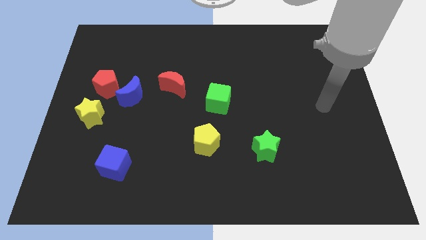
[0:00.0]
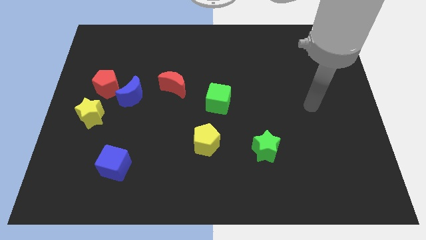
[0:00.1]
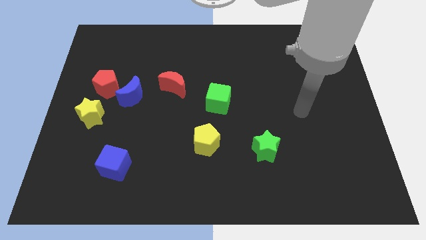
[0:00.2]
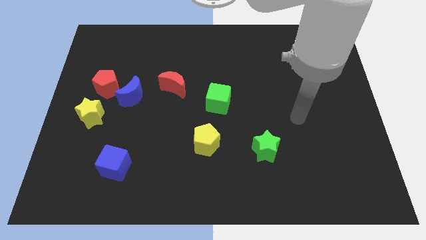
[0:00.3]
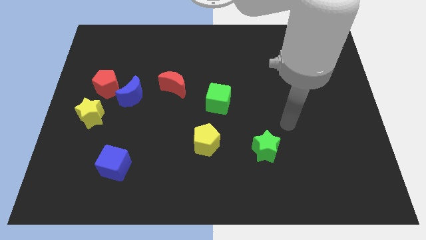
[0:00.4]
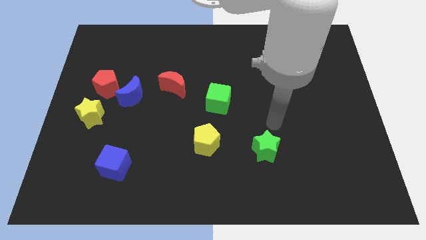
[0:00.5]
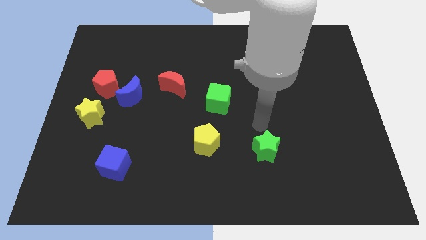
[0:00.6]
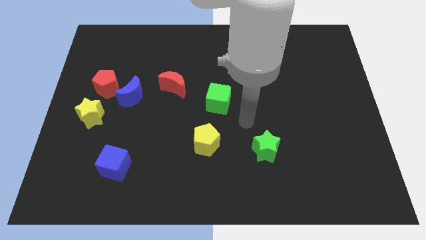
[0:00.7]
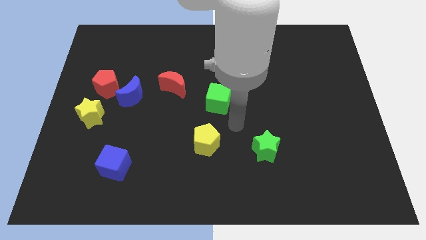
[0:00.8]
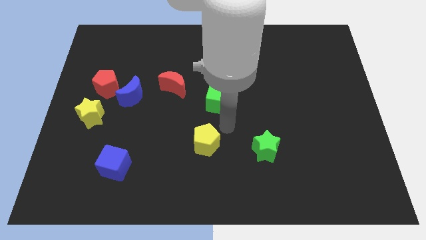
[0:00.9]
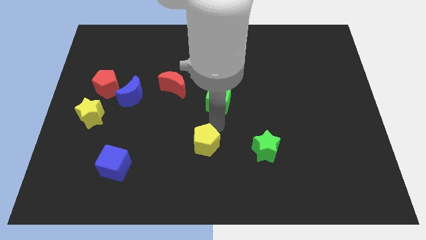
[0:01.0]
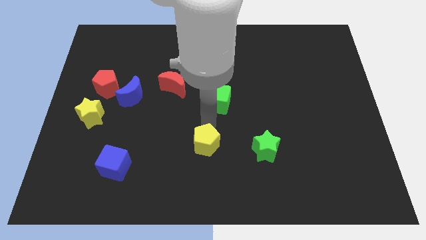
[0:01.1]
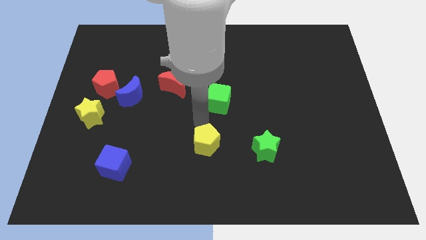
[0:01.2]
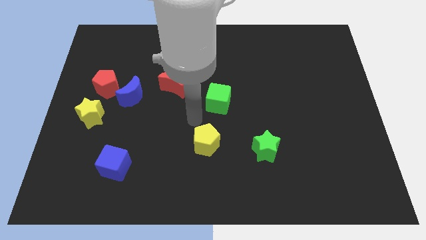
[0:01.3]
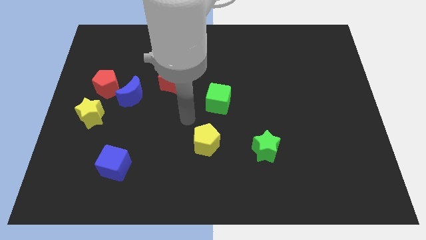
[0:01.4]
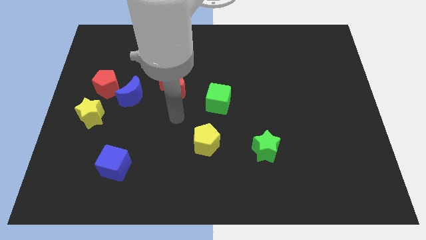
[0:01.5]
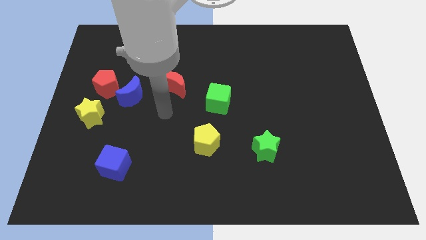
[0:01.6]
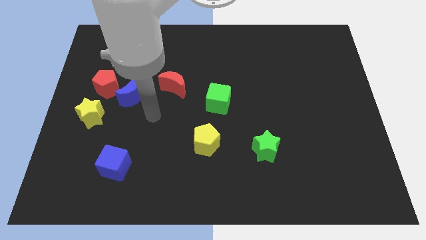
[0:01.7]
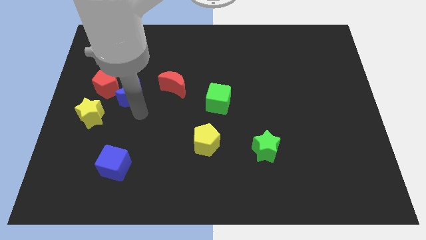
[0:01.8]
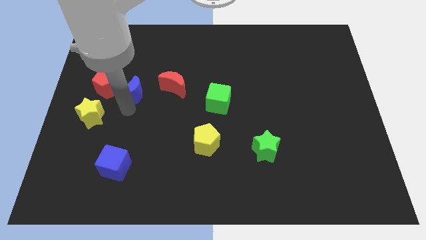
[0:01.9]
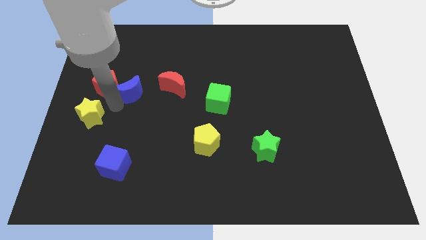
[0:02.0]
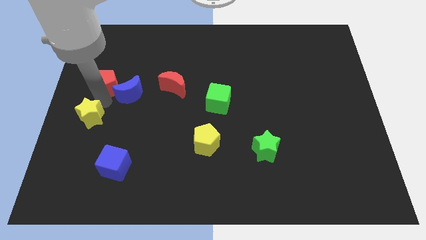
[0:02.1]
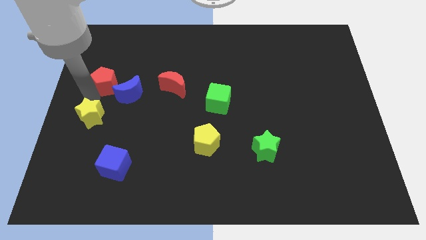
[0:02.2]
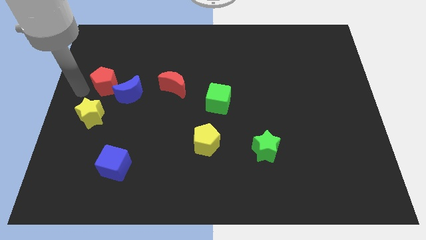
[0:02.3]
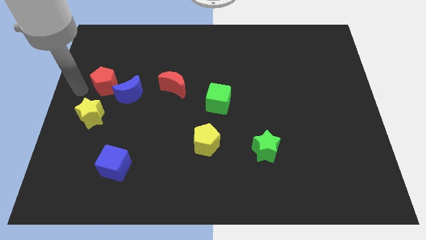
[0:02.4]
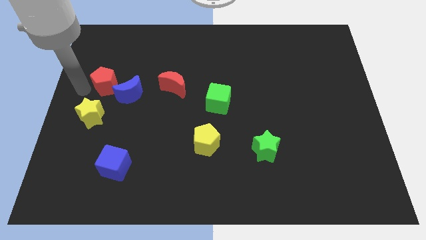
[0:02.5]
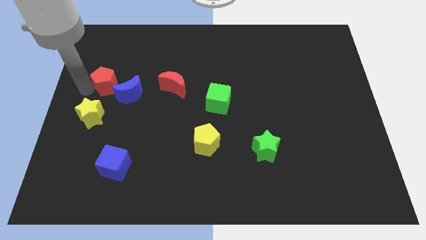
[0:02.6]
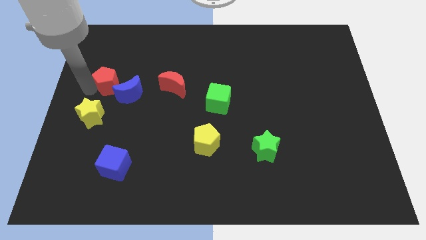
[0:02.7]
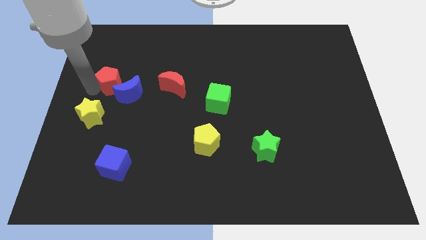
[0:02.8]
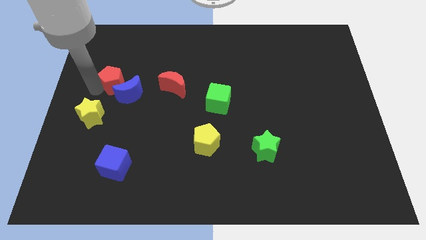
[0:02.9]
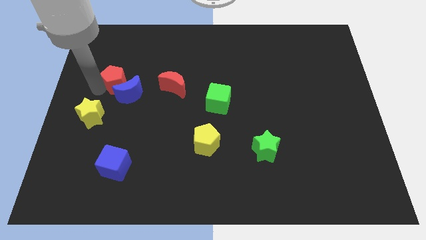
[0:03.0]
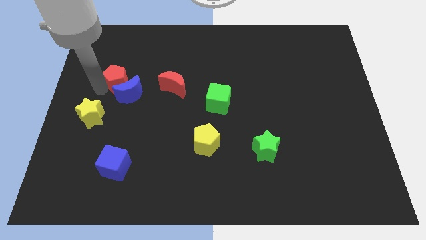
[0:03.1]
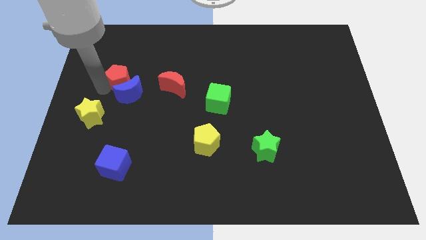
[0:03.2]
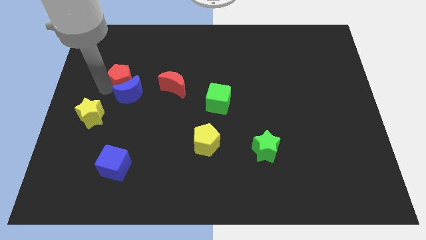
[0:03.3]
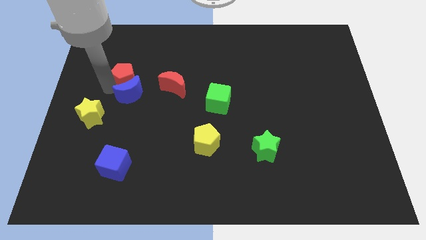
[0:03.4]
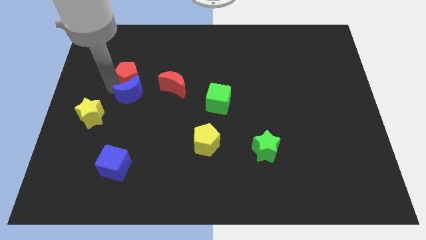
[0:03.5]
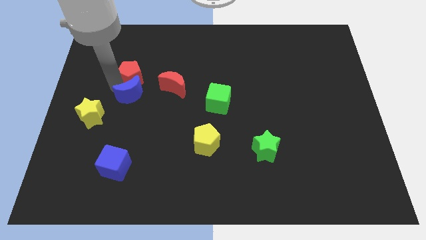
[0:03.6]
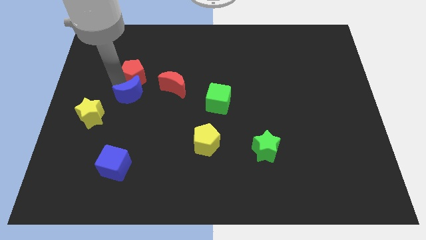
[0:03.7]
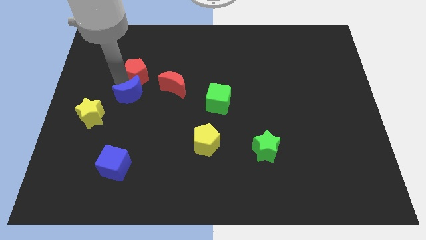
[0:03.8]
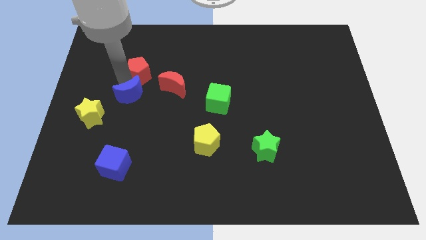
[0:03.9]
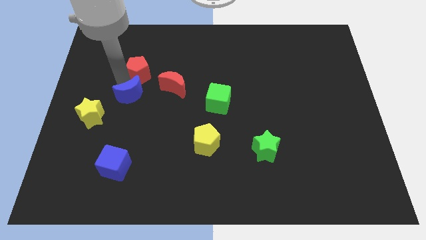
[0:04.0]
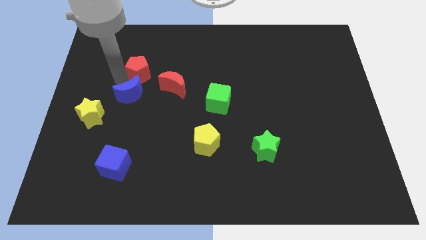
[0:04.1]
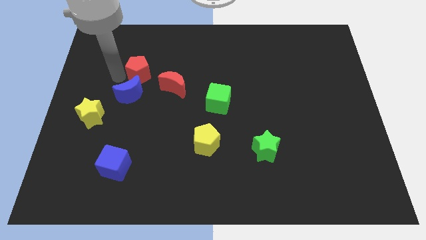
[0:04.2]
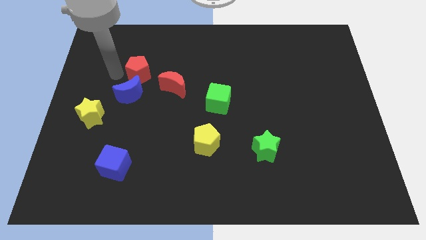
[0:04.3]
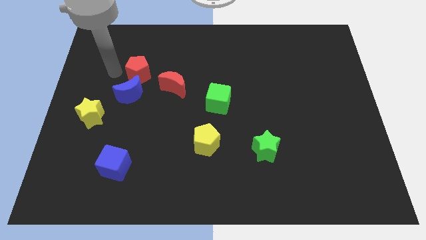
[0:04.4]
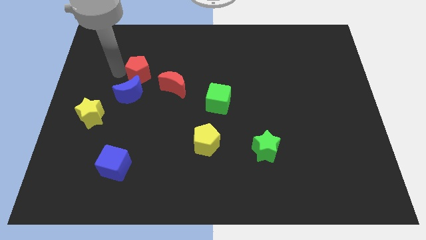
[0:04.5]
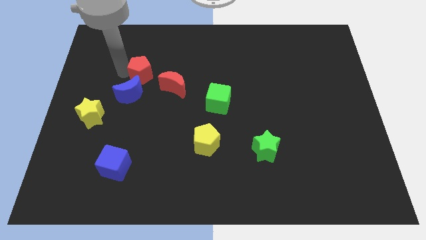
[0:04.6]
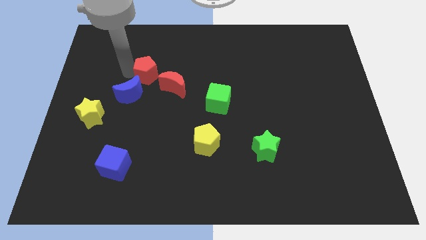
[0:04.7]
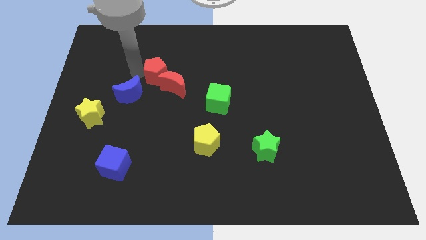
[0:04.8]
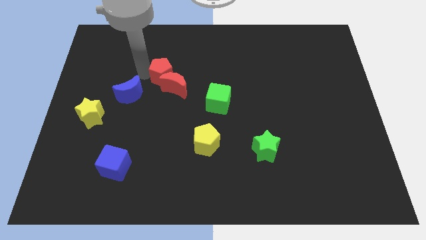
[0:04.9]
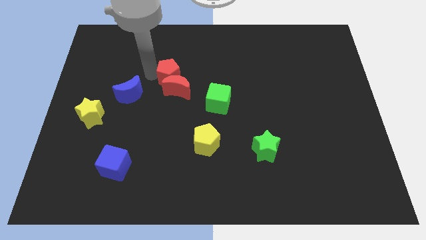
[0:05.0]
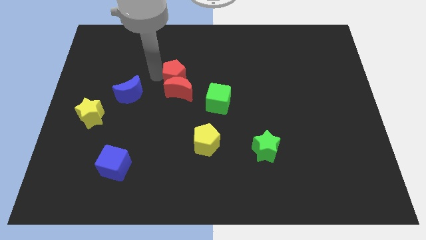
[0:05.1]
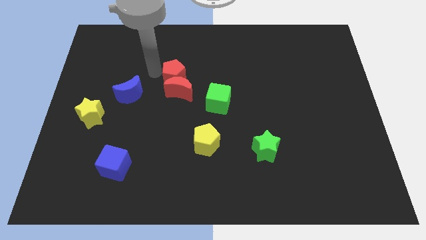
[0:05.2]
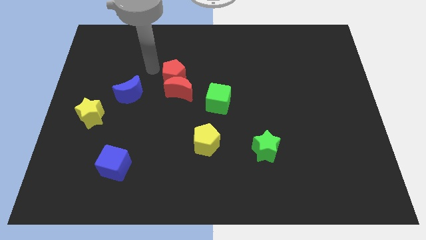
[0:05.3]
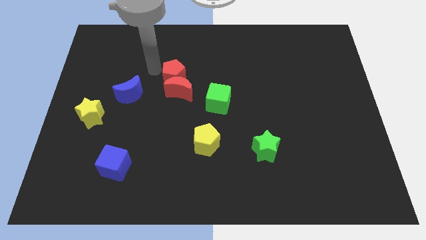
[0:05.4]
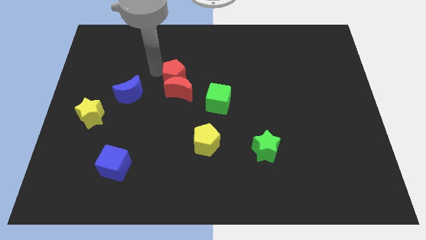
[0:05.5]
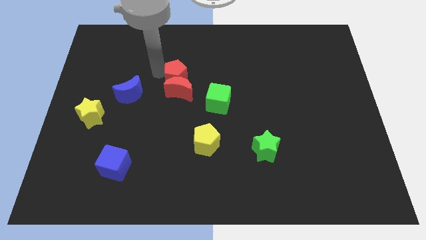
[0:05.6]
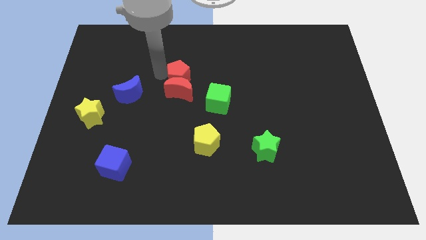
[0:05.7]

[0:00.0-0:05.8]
push the red pentagon to the top left side of the green cube

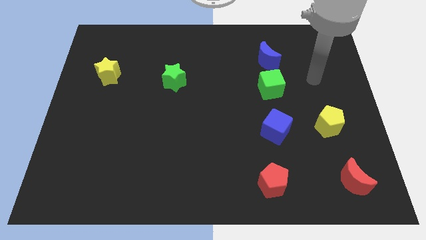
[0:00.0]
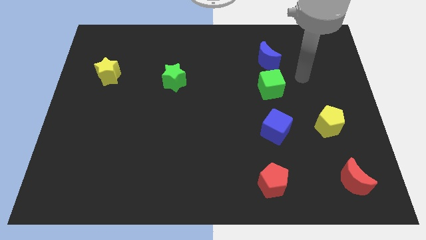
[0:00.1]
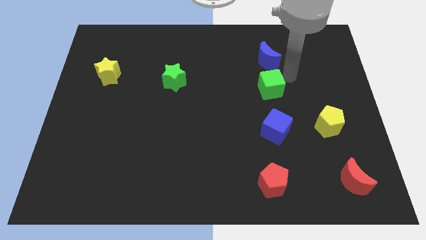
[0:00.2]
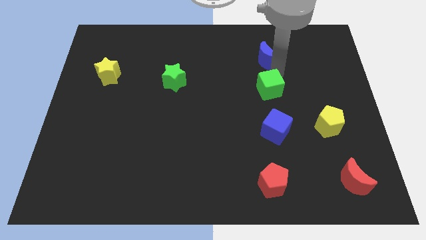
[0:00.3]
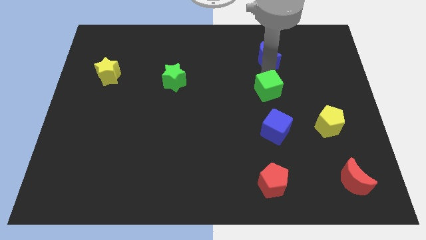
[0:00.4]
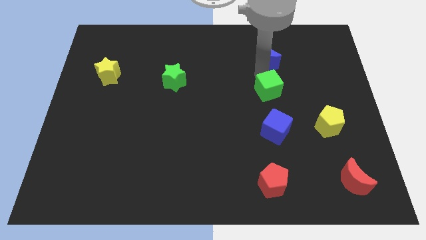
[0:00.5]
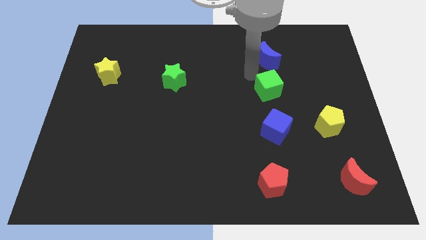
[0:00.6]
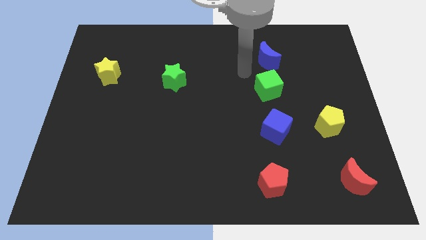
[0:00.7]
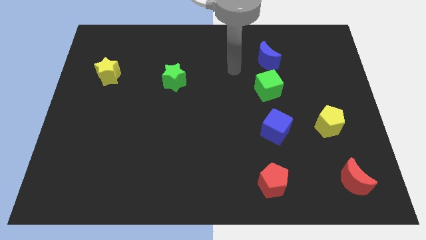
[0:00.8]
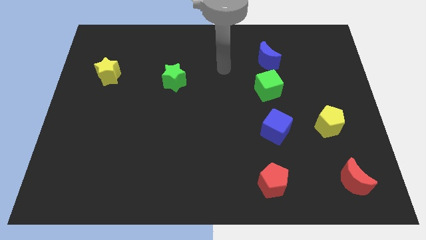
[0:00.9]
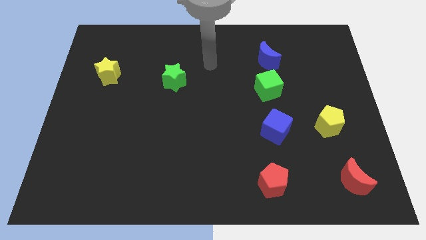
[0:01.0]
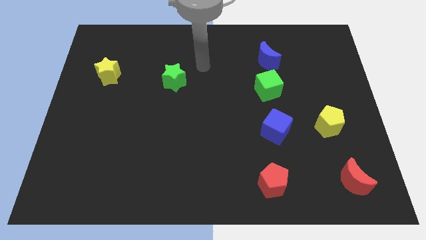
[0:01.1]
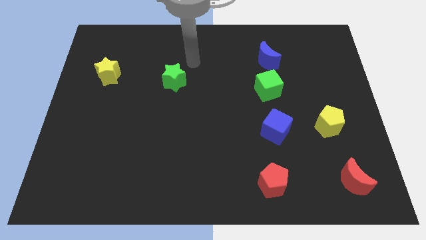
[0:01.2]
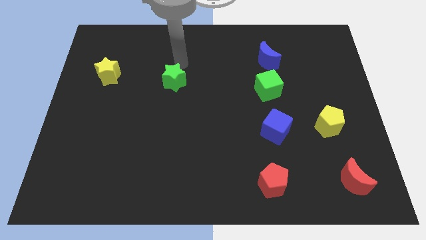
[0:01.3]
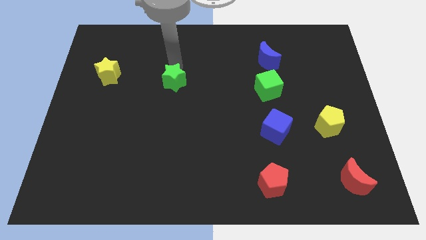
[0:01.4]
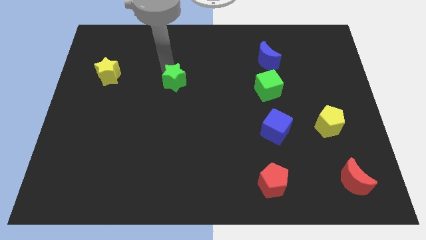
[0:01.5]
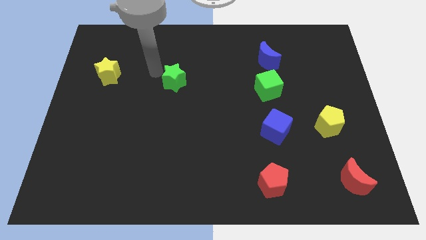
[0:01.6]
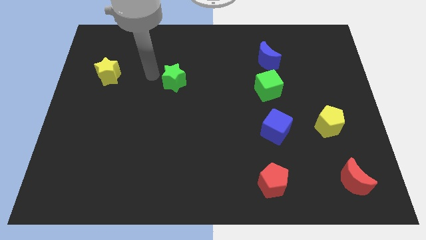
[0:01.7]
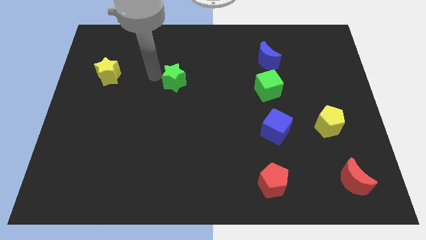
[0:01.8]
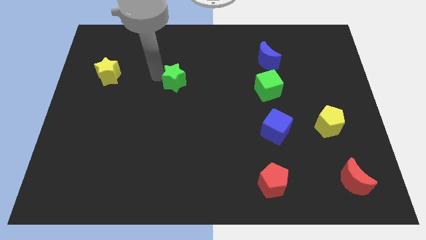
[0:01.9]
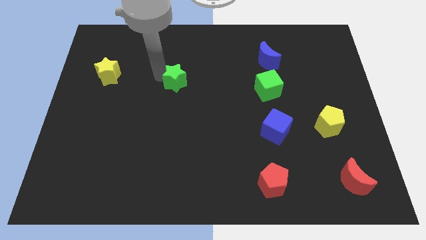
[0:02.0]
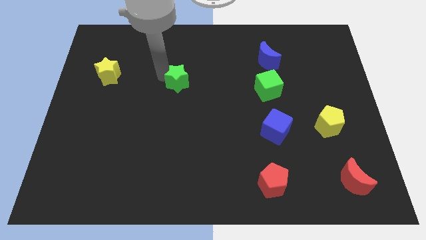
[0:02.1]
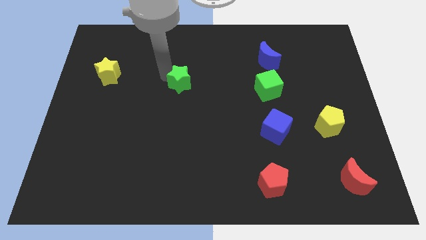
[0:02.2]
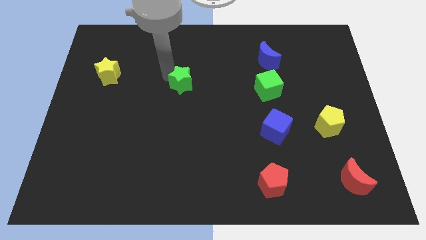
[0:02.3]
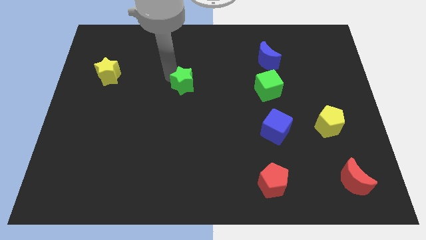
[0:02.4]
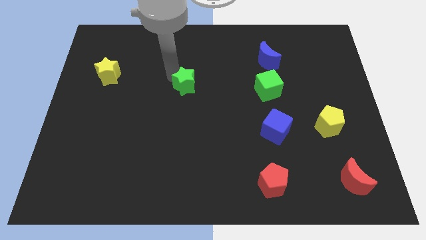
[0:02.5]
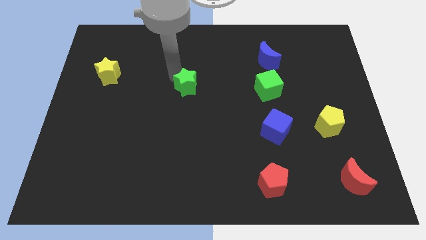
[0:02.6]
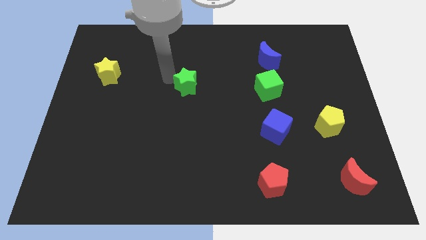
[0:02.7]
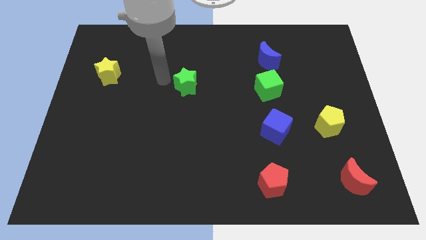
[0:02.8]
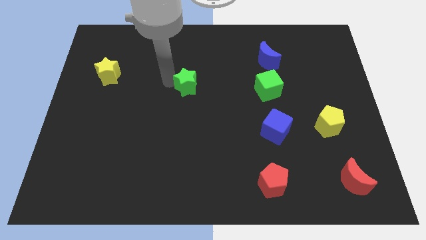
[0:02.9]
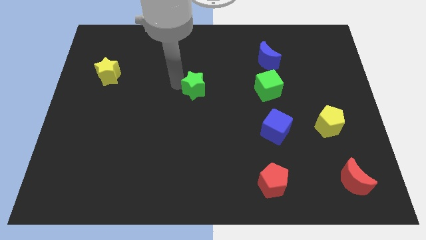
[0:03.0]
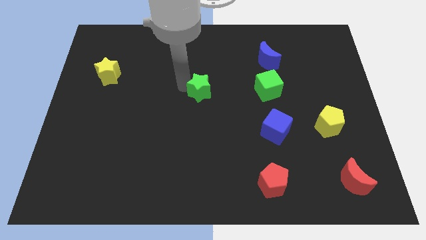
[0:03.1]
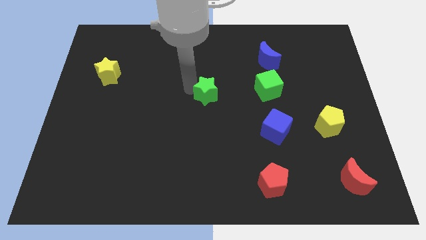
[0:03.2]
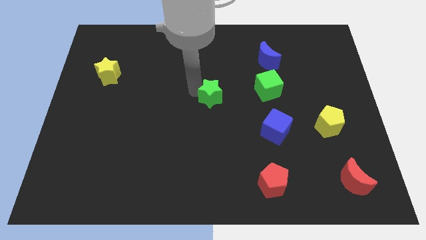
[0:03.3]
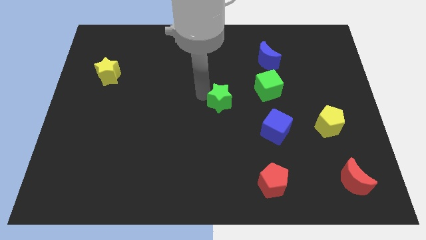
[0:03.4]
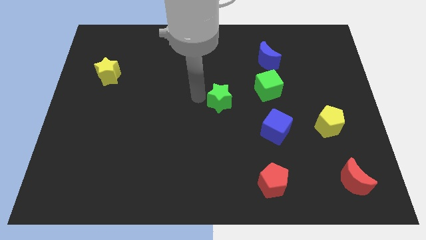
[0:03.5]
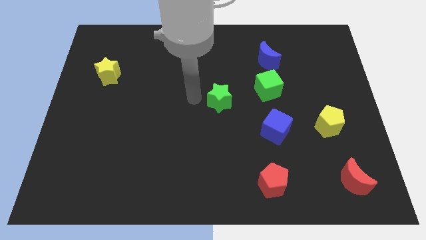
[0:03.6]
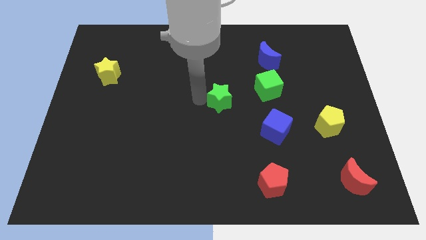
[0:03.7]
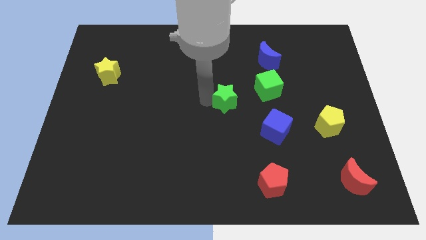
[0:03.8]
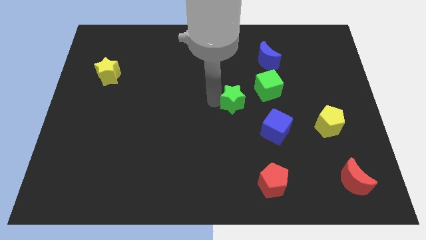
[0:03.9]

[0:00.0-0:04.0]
push the green star to the bottom left side of the green cube
